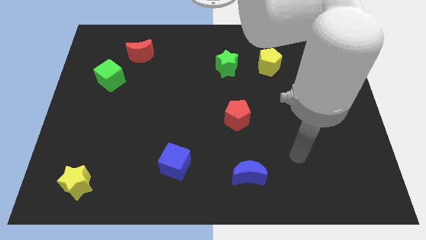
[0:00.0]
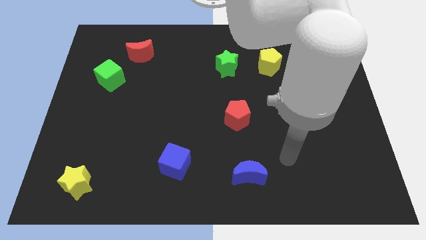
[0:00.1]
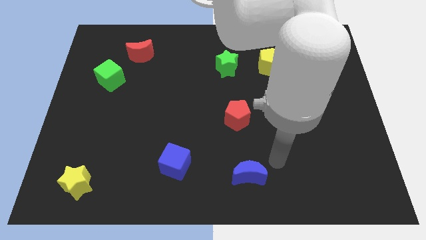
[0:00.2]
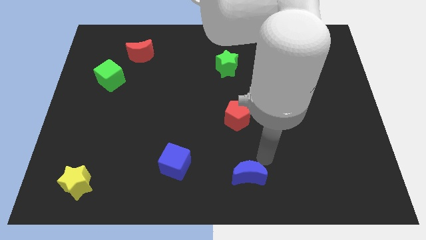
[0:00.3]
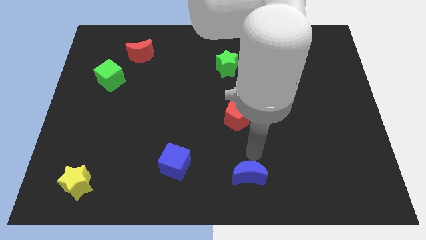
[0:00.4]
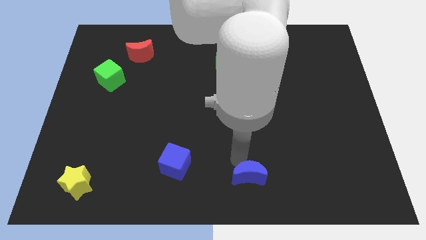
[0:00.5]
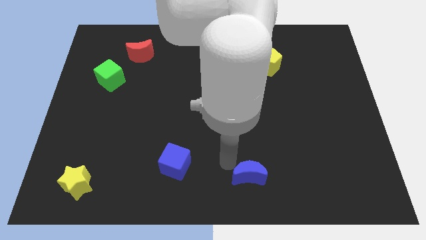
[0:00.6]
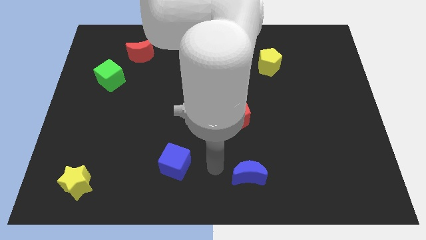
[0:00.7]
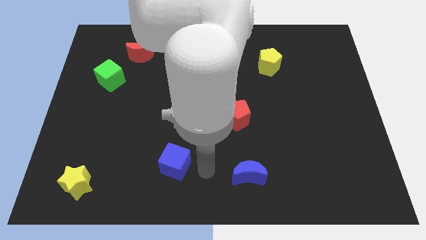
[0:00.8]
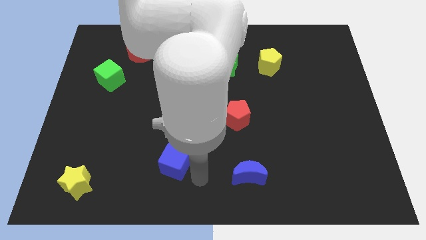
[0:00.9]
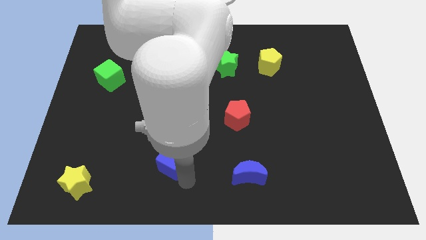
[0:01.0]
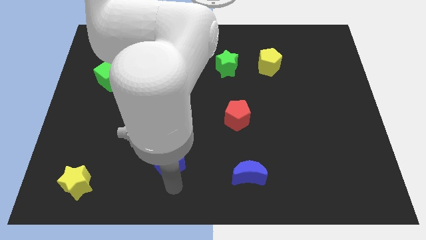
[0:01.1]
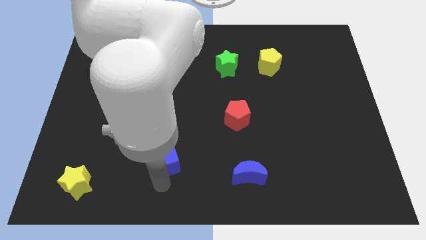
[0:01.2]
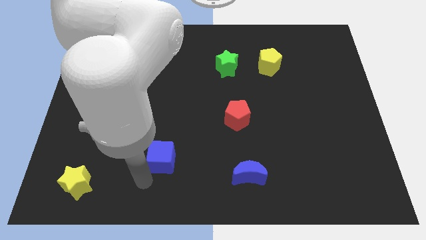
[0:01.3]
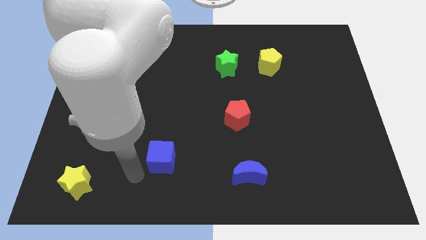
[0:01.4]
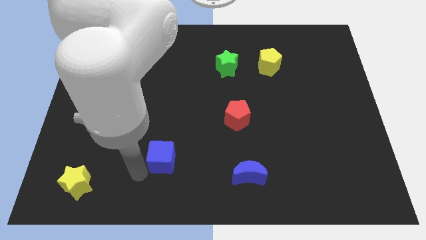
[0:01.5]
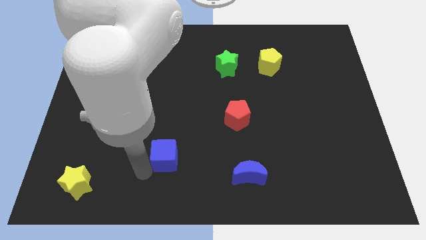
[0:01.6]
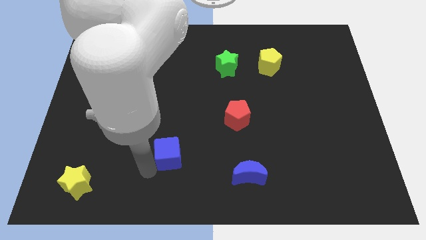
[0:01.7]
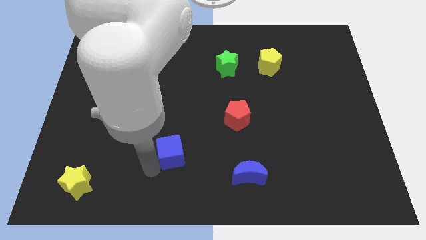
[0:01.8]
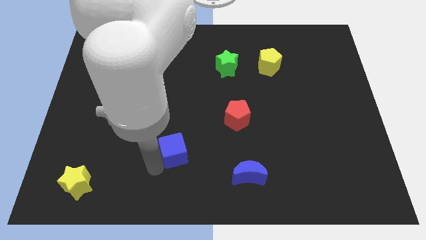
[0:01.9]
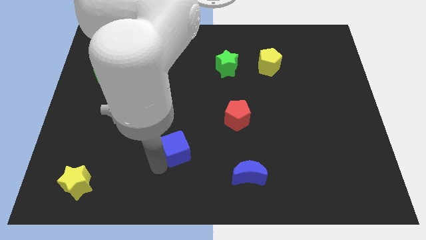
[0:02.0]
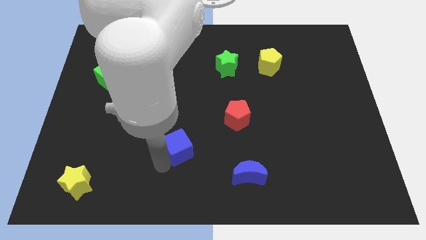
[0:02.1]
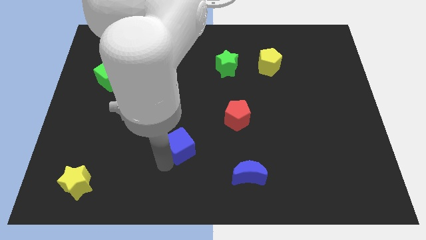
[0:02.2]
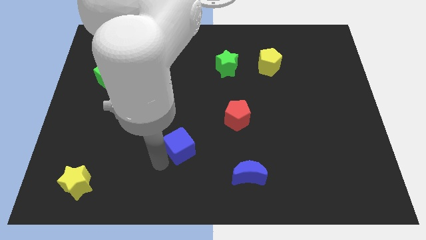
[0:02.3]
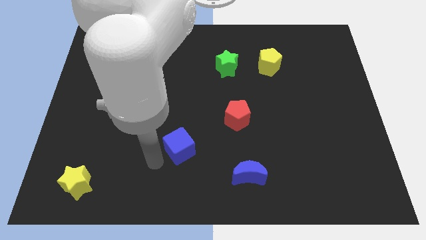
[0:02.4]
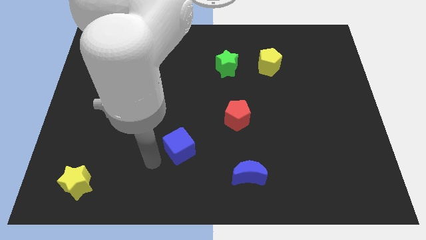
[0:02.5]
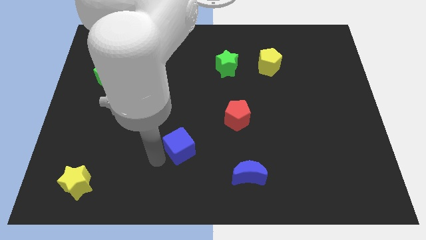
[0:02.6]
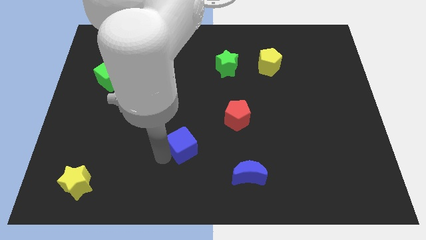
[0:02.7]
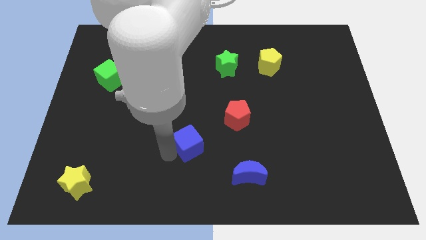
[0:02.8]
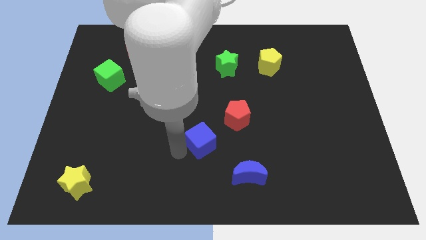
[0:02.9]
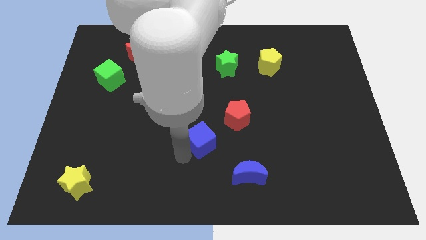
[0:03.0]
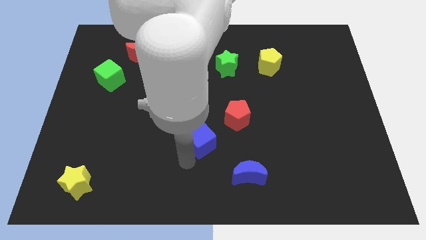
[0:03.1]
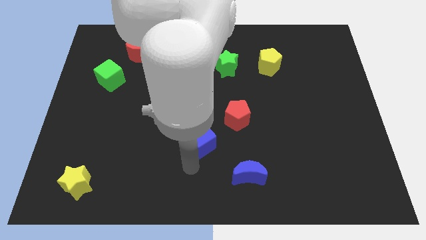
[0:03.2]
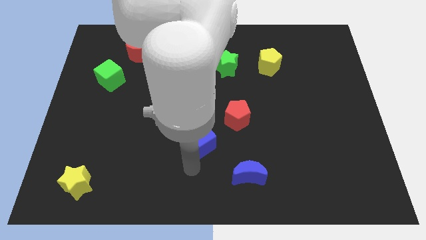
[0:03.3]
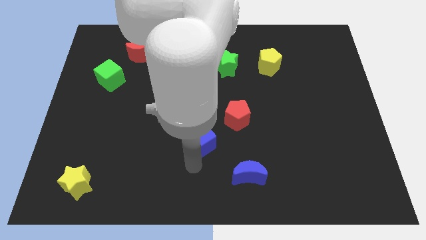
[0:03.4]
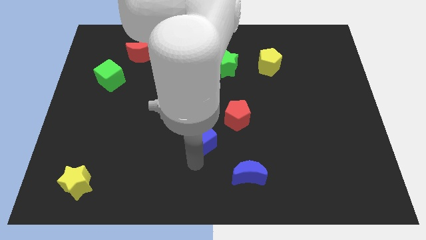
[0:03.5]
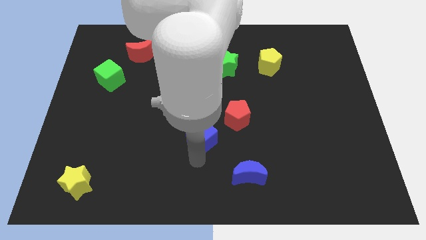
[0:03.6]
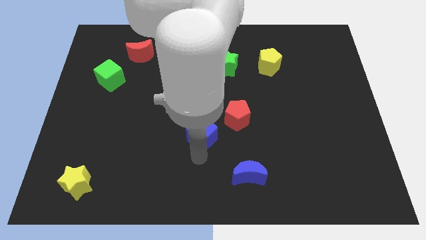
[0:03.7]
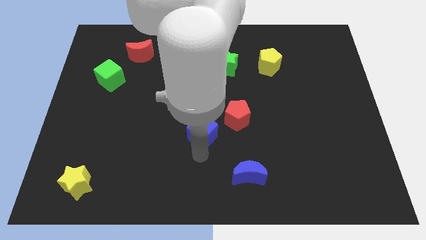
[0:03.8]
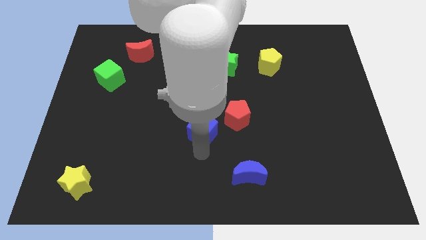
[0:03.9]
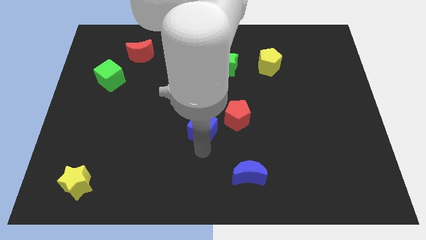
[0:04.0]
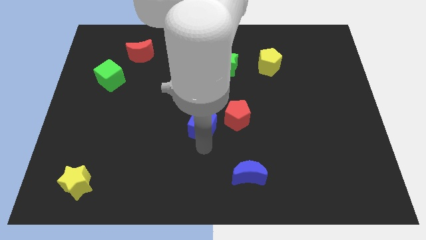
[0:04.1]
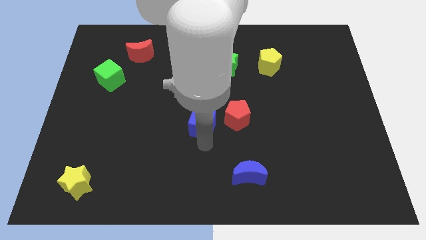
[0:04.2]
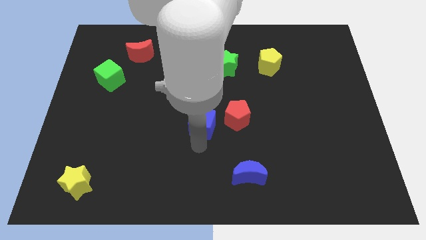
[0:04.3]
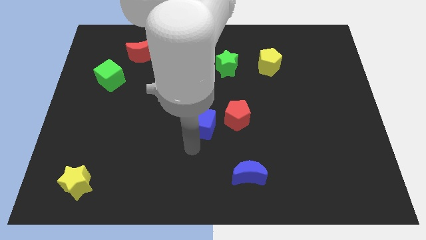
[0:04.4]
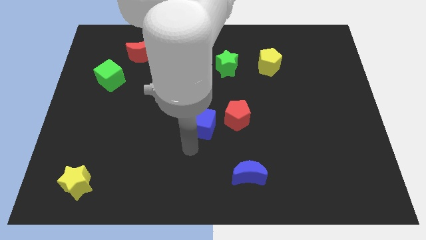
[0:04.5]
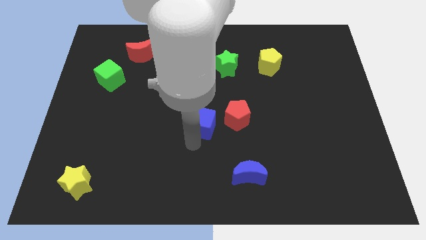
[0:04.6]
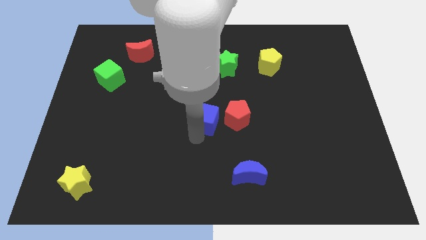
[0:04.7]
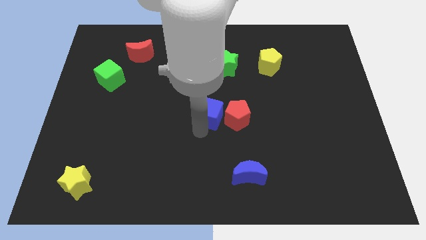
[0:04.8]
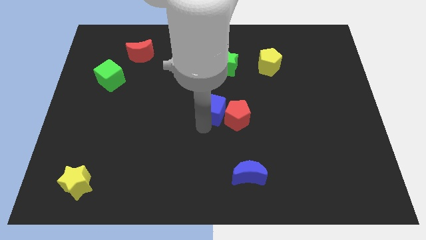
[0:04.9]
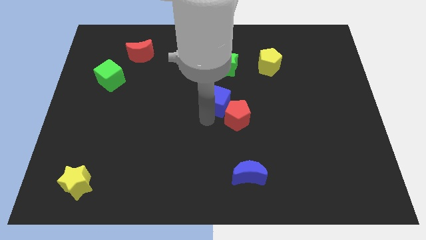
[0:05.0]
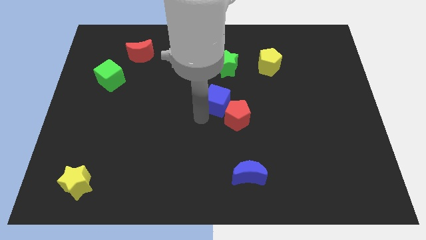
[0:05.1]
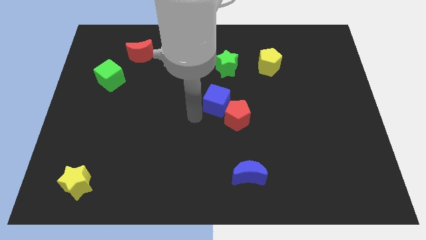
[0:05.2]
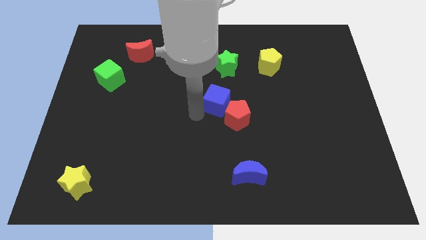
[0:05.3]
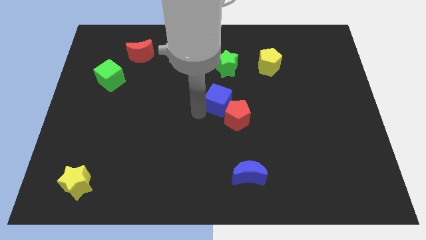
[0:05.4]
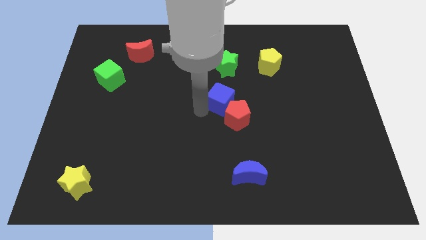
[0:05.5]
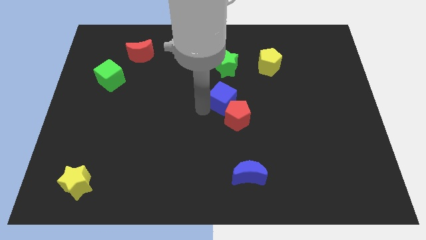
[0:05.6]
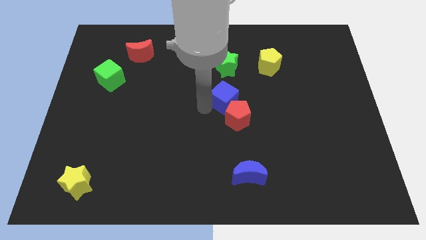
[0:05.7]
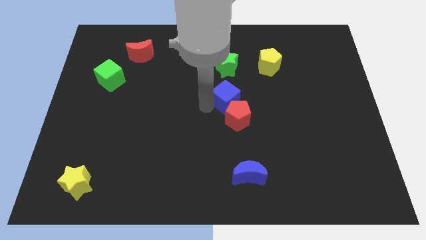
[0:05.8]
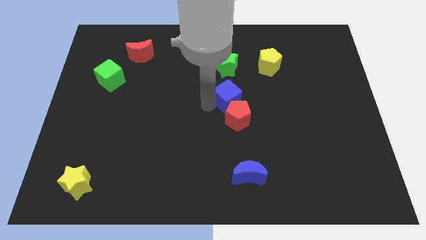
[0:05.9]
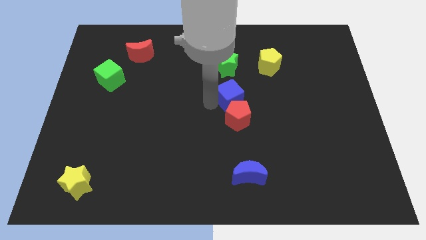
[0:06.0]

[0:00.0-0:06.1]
slide the blue cube up and right diagonally

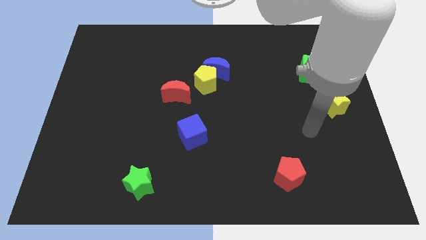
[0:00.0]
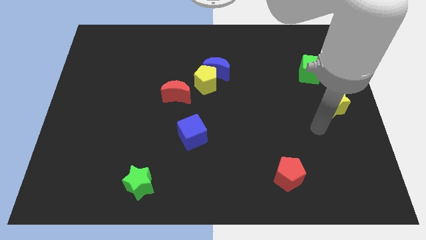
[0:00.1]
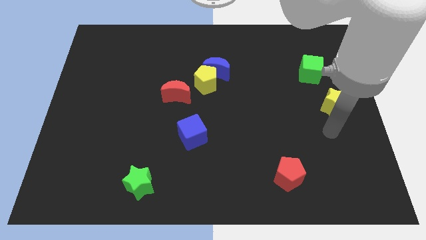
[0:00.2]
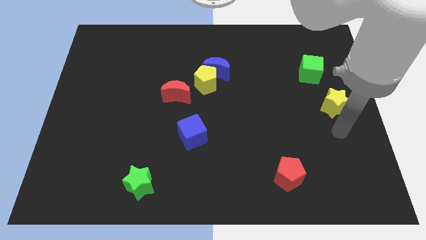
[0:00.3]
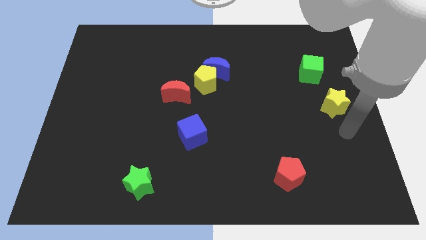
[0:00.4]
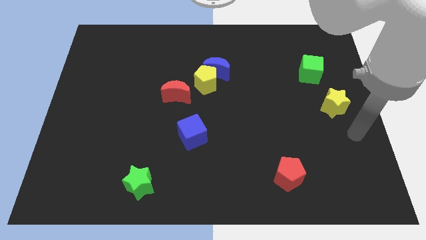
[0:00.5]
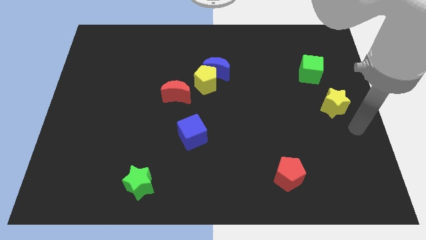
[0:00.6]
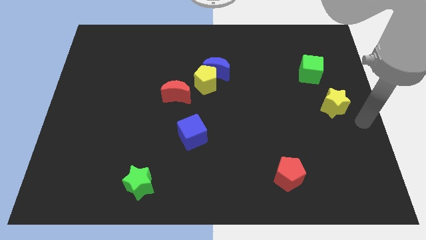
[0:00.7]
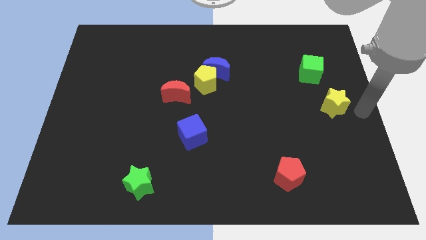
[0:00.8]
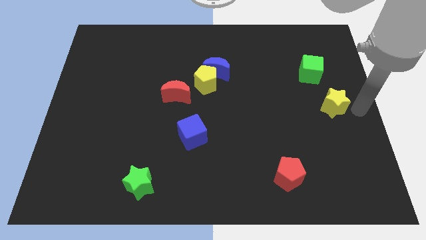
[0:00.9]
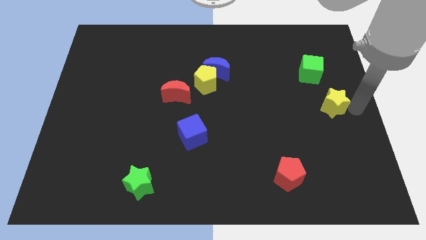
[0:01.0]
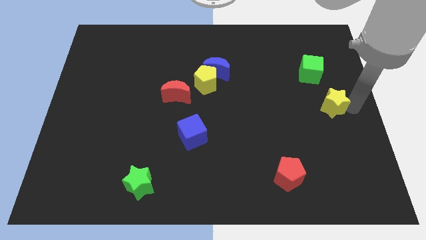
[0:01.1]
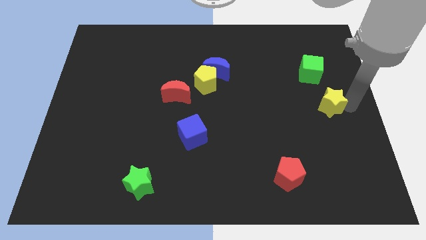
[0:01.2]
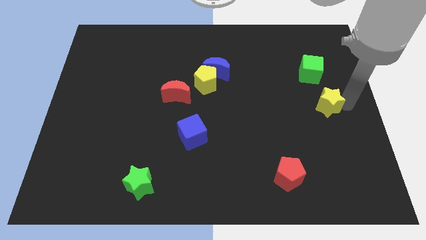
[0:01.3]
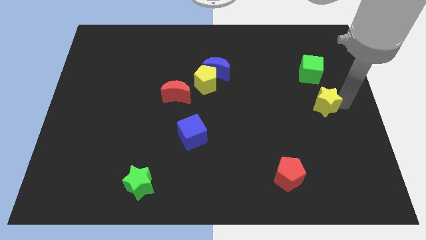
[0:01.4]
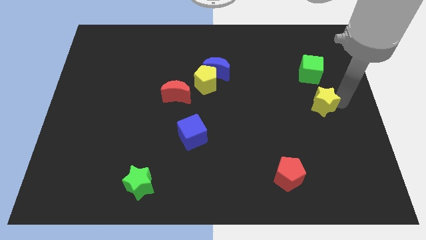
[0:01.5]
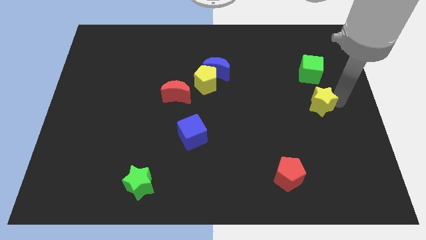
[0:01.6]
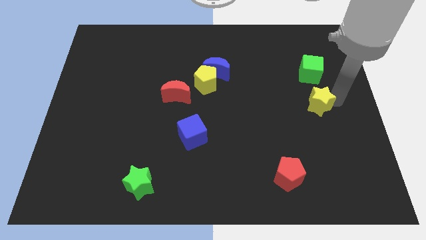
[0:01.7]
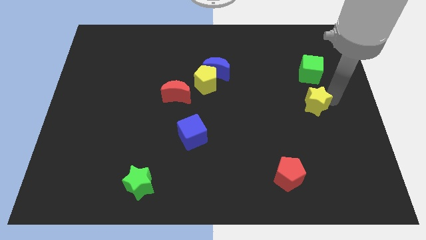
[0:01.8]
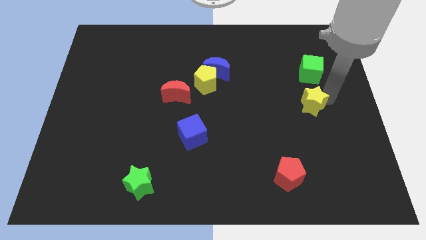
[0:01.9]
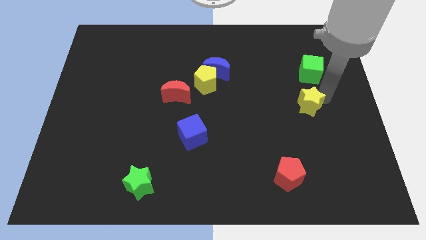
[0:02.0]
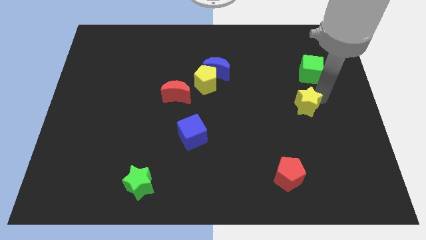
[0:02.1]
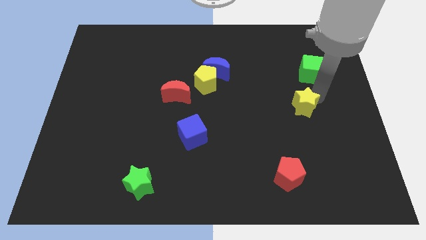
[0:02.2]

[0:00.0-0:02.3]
push the yellow star a little to the left
